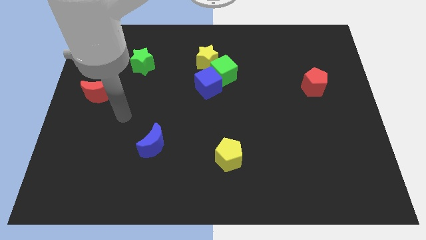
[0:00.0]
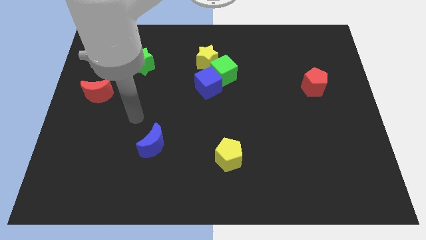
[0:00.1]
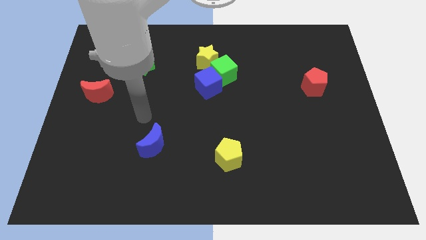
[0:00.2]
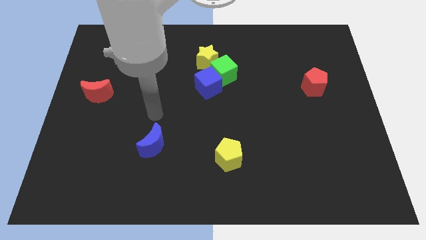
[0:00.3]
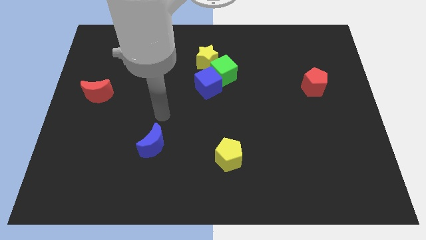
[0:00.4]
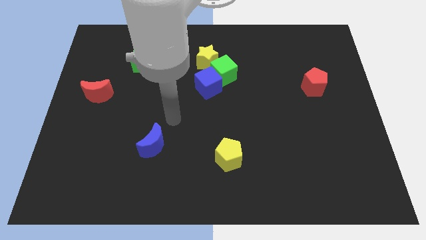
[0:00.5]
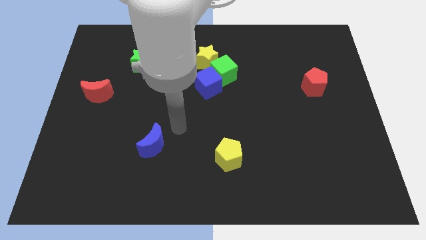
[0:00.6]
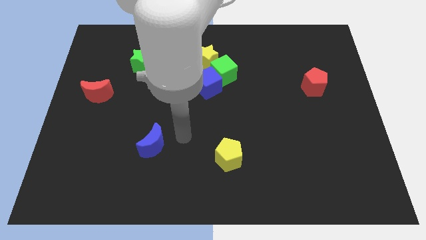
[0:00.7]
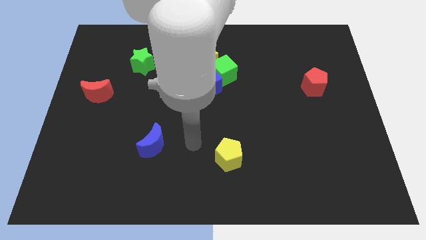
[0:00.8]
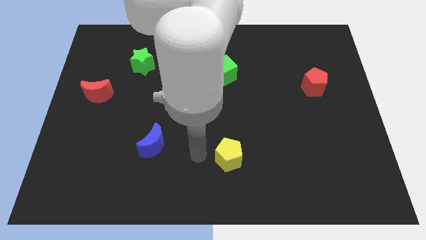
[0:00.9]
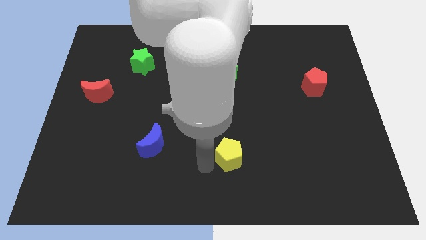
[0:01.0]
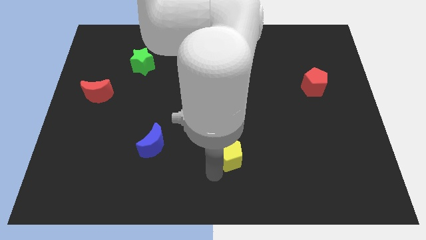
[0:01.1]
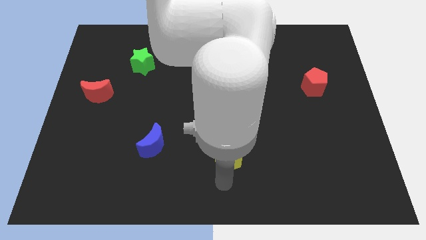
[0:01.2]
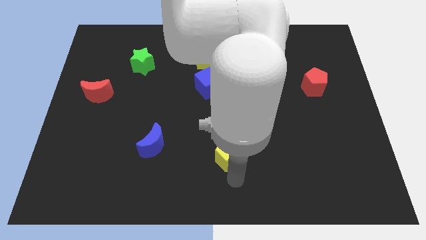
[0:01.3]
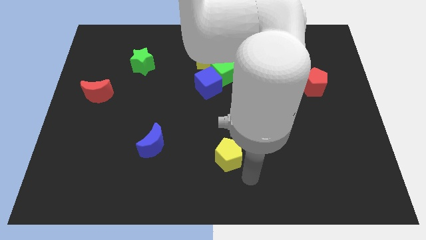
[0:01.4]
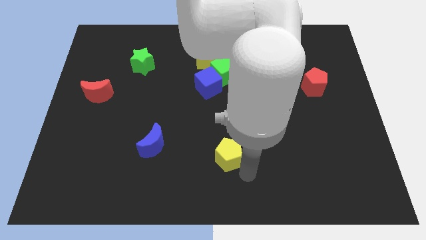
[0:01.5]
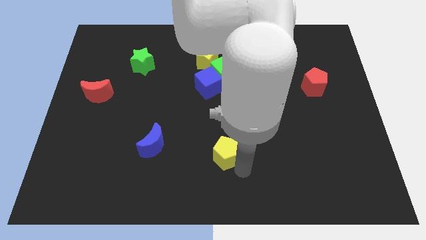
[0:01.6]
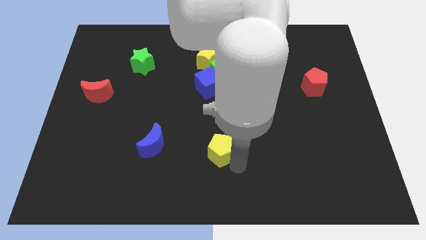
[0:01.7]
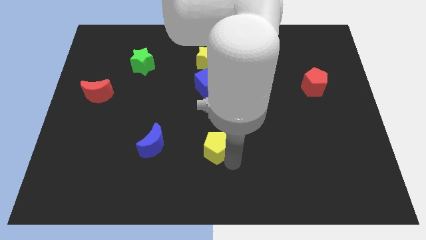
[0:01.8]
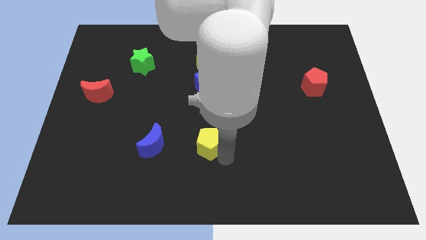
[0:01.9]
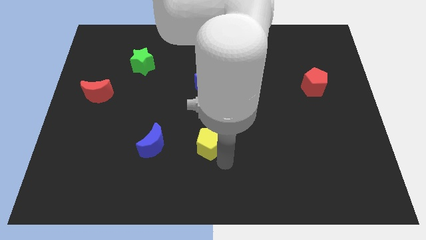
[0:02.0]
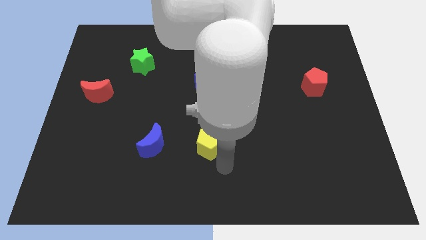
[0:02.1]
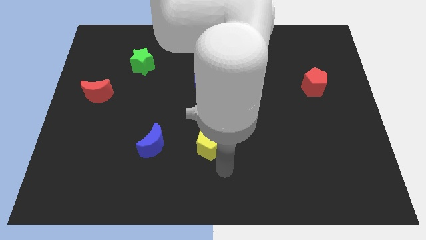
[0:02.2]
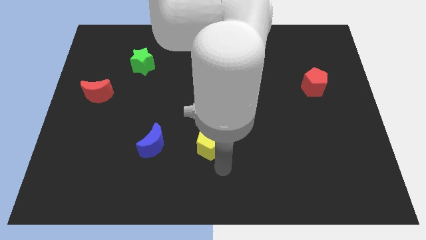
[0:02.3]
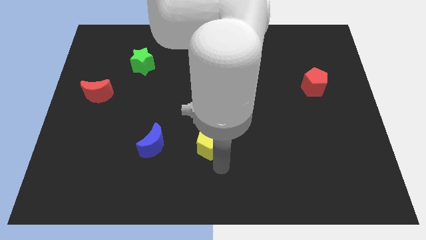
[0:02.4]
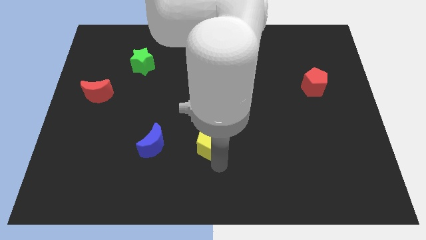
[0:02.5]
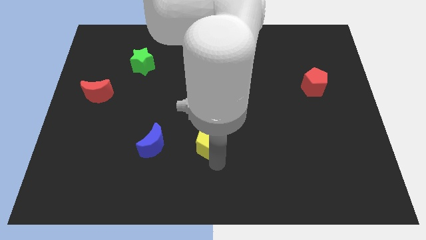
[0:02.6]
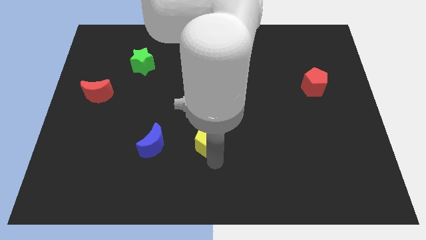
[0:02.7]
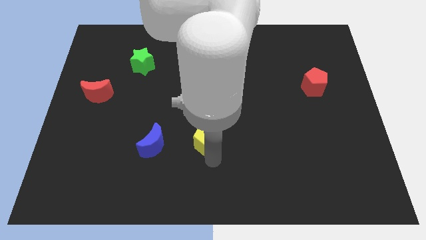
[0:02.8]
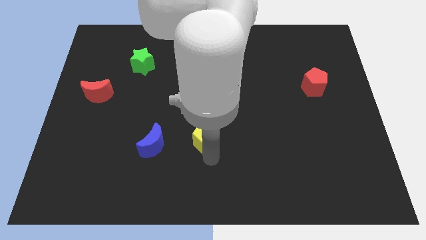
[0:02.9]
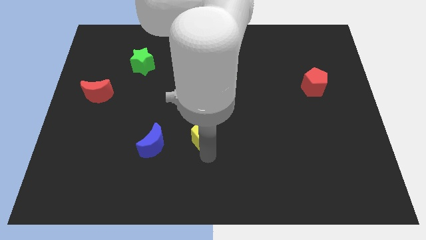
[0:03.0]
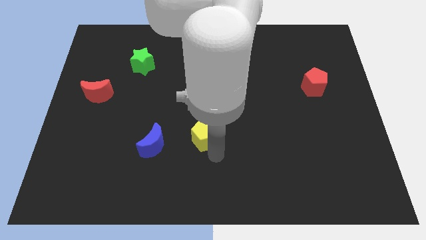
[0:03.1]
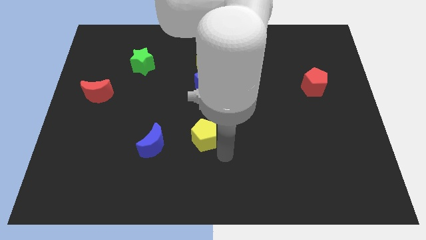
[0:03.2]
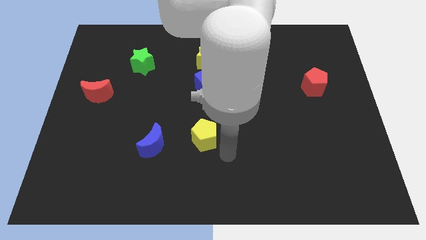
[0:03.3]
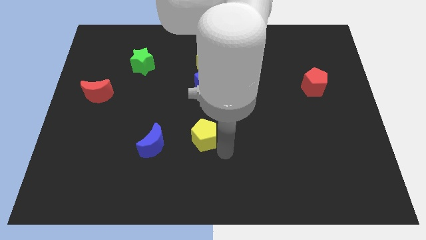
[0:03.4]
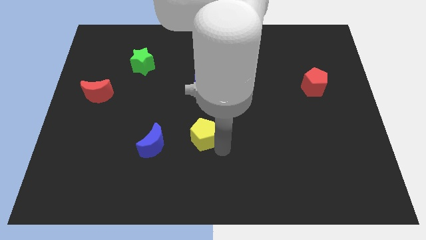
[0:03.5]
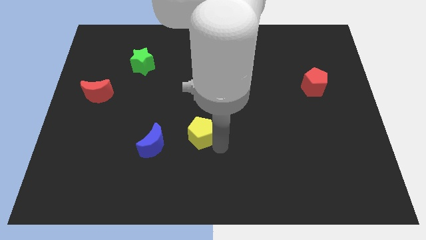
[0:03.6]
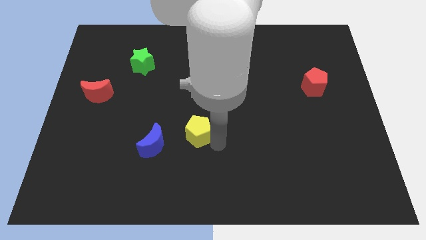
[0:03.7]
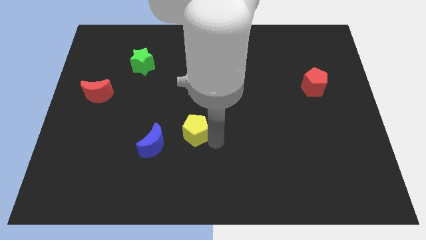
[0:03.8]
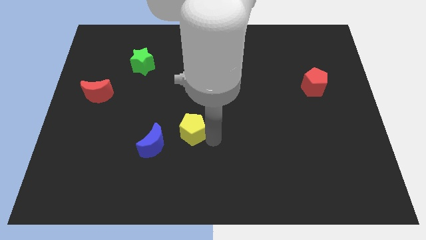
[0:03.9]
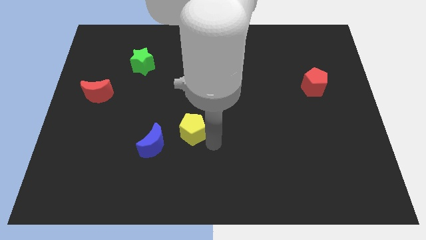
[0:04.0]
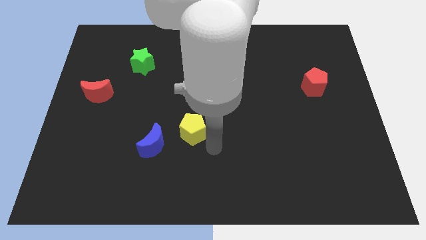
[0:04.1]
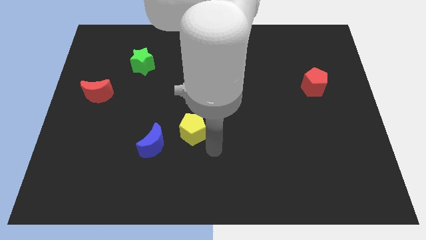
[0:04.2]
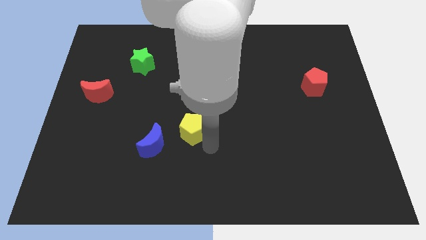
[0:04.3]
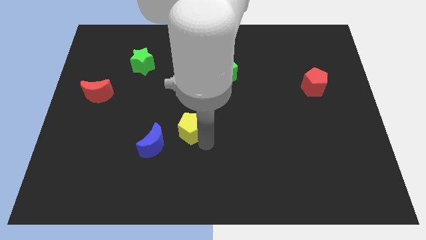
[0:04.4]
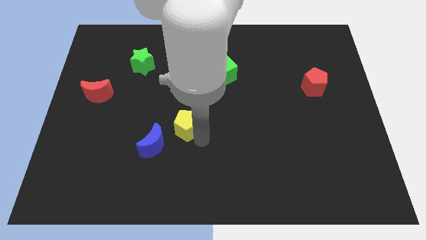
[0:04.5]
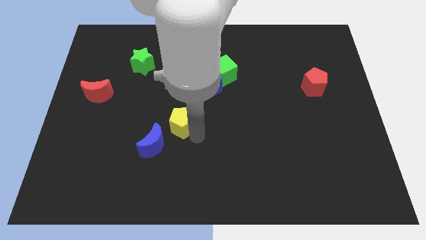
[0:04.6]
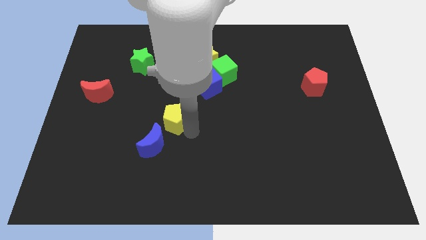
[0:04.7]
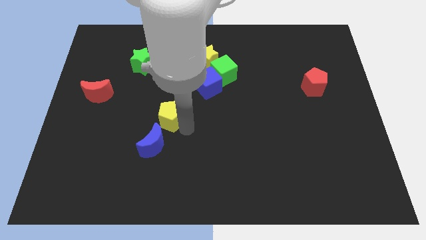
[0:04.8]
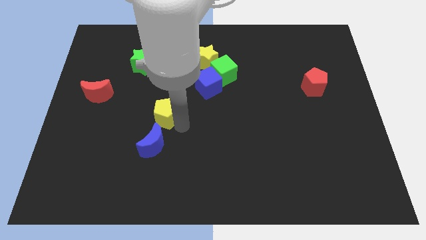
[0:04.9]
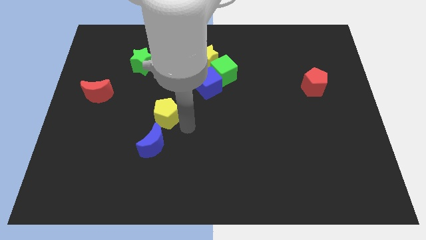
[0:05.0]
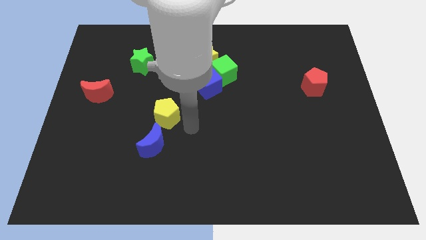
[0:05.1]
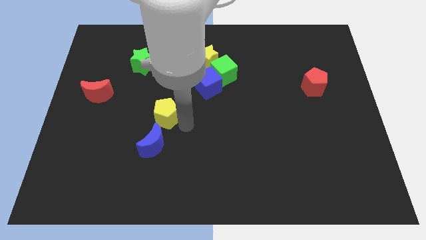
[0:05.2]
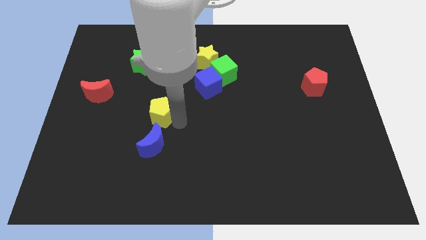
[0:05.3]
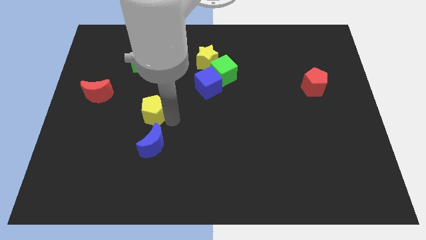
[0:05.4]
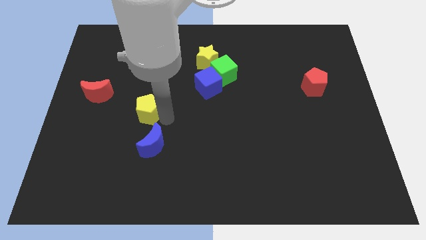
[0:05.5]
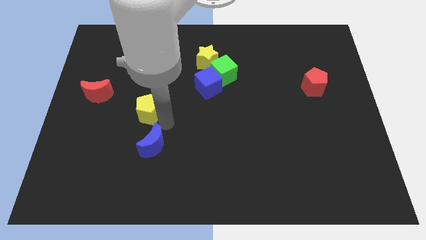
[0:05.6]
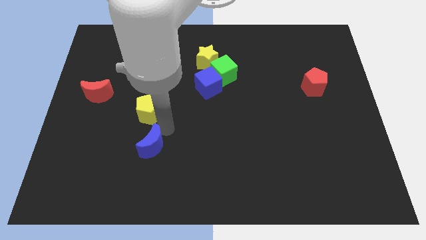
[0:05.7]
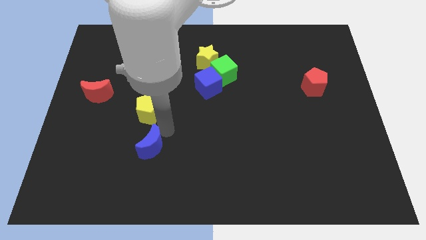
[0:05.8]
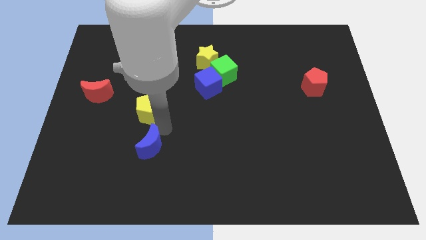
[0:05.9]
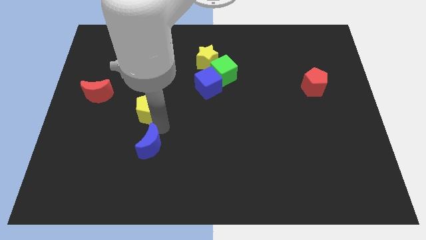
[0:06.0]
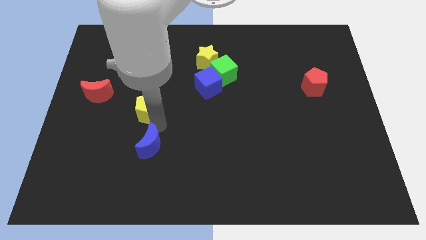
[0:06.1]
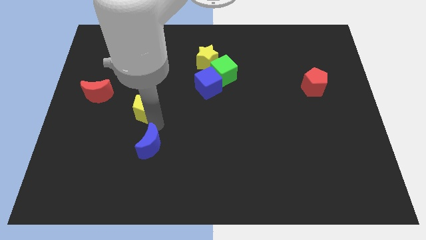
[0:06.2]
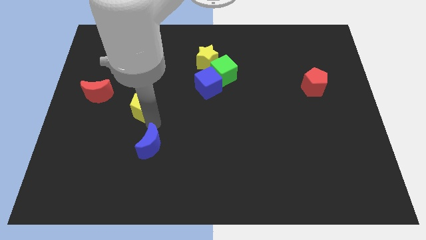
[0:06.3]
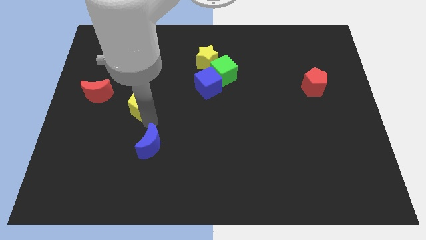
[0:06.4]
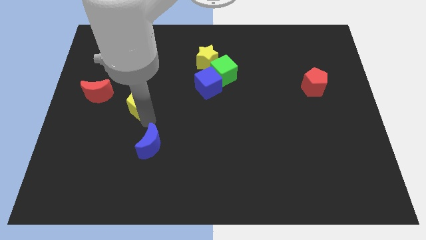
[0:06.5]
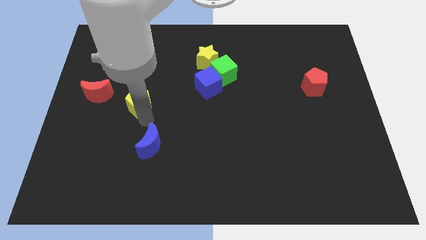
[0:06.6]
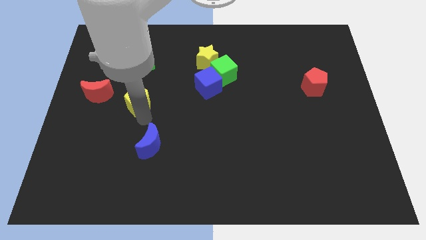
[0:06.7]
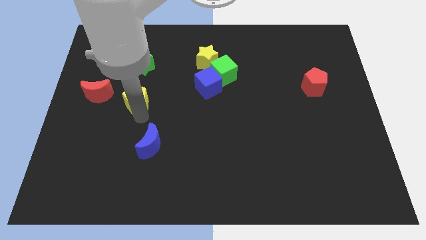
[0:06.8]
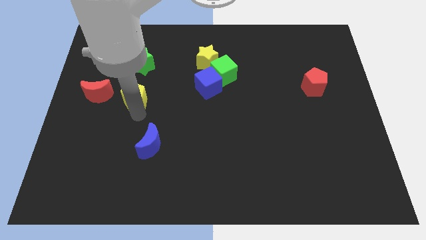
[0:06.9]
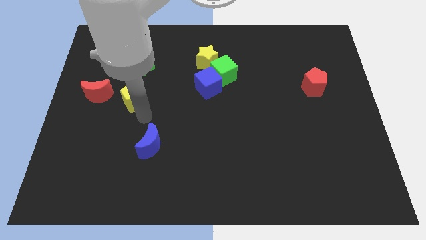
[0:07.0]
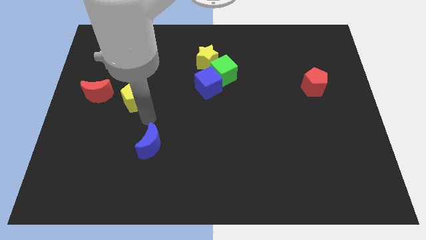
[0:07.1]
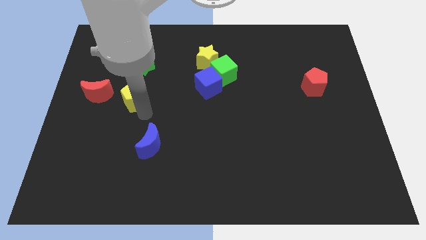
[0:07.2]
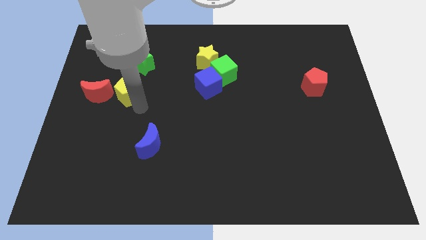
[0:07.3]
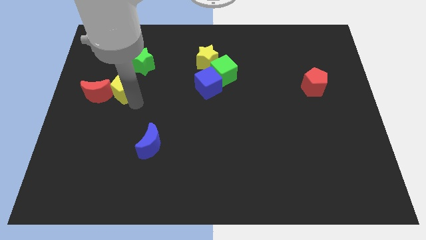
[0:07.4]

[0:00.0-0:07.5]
put the yellow pentagon diagonally down and to the left of the green star
